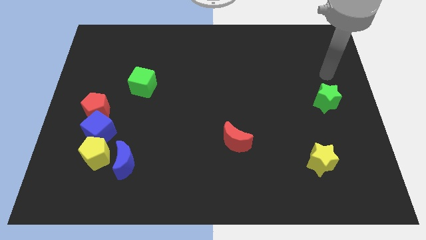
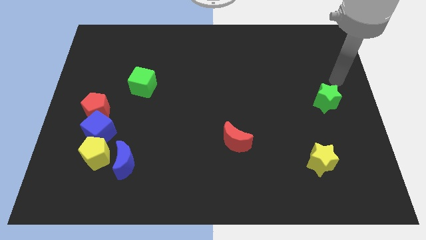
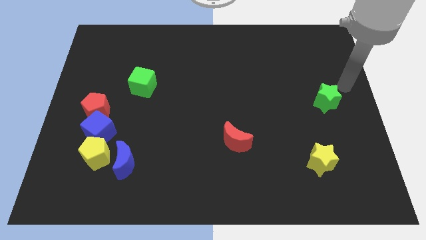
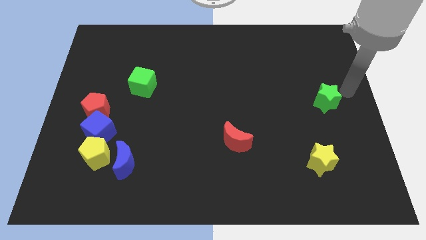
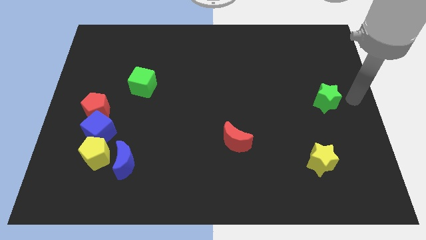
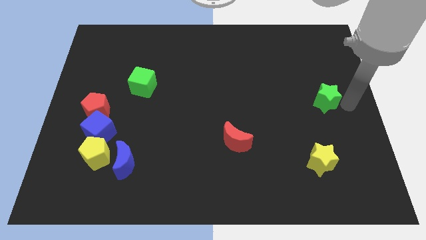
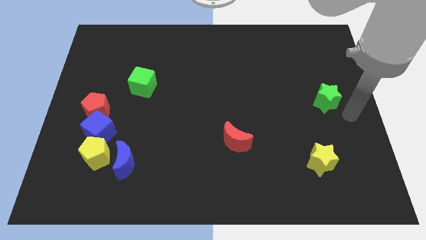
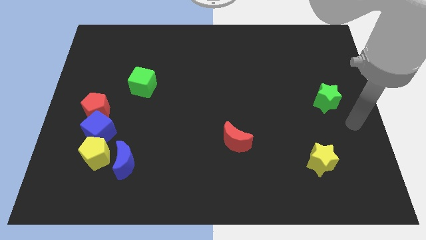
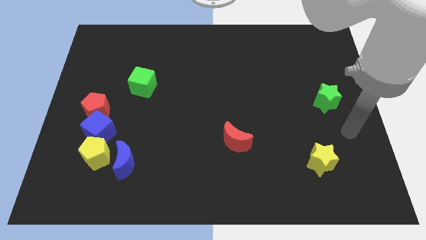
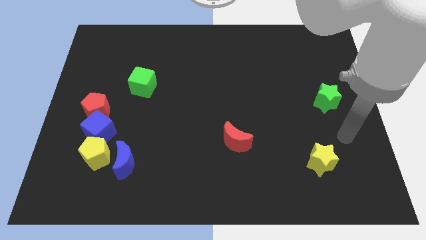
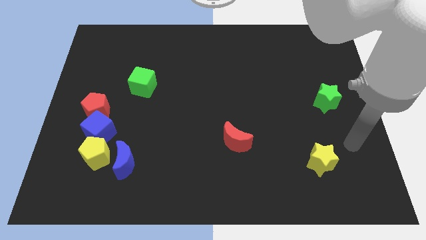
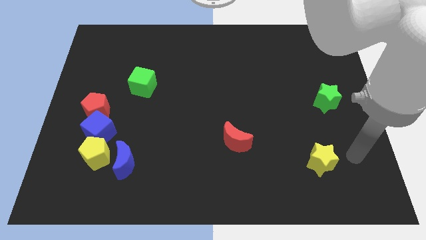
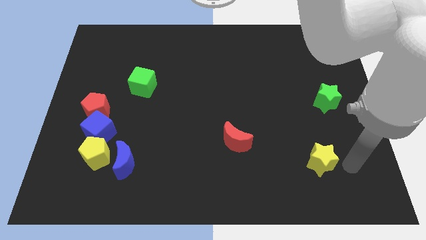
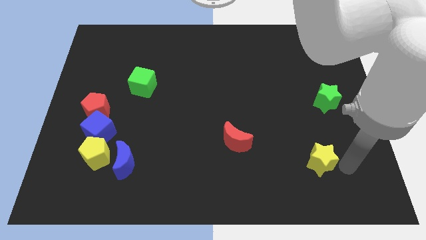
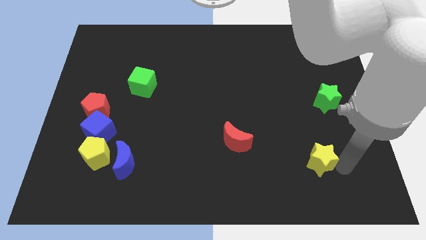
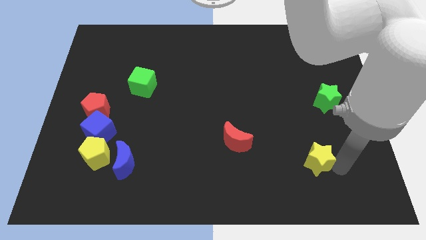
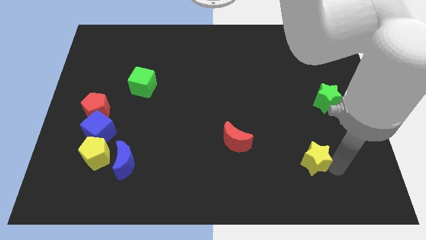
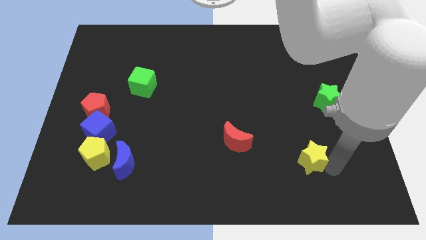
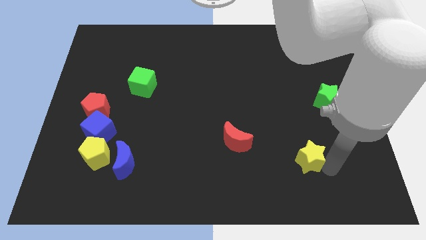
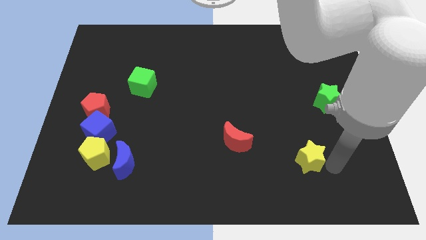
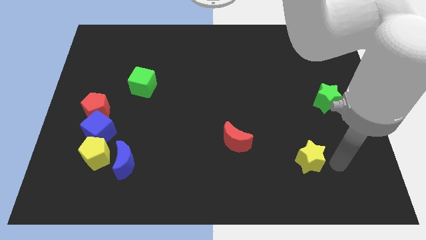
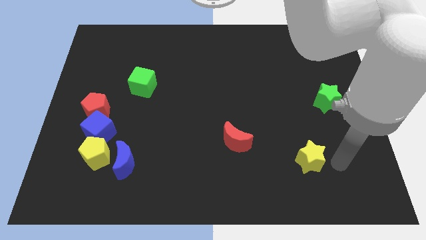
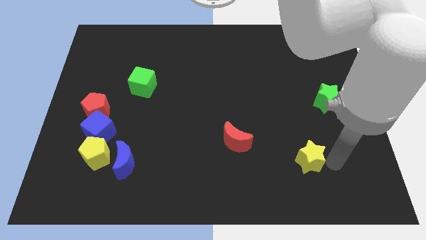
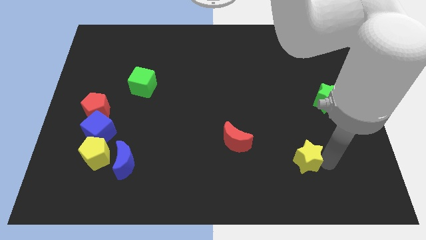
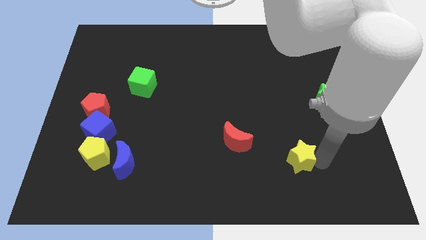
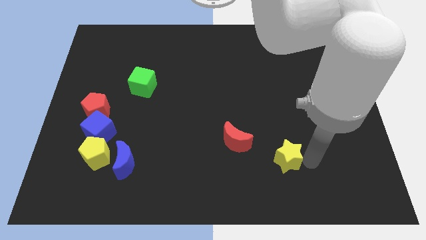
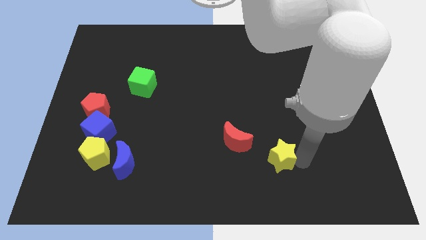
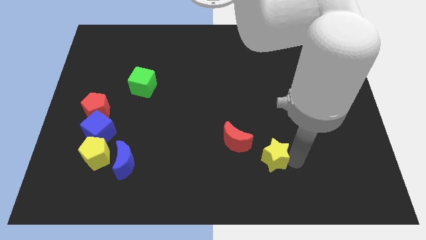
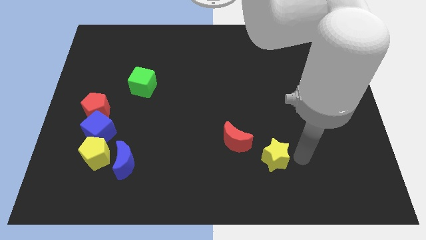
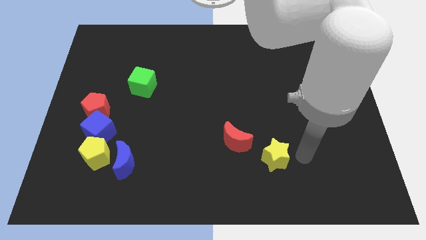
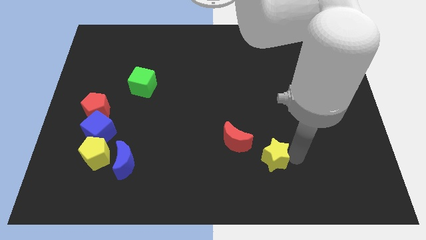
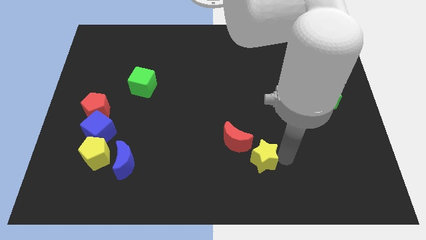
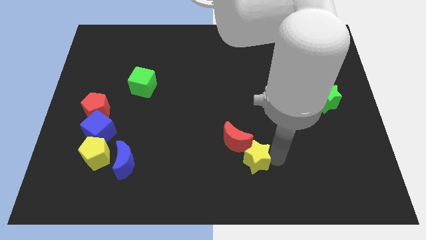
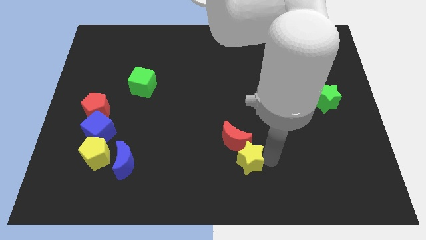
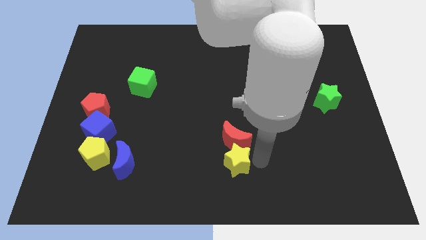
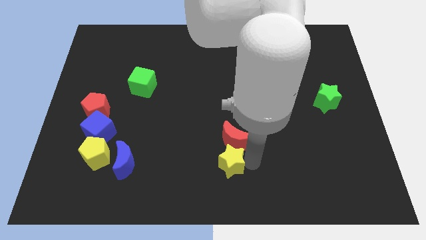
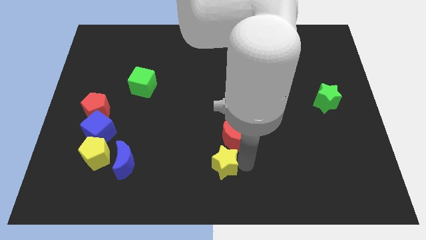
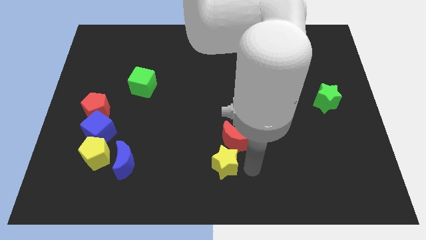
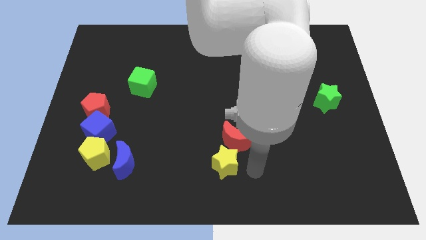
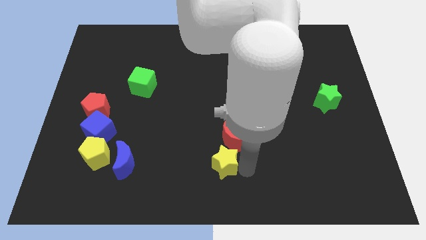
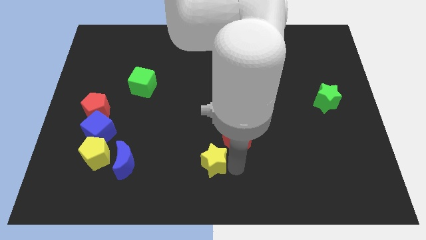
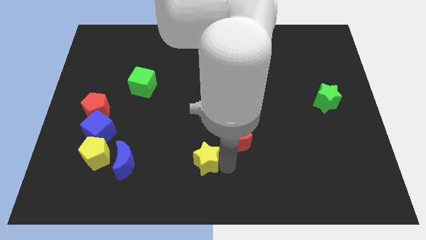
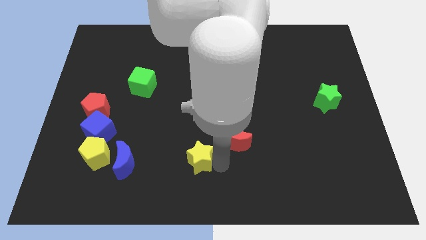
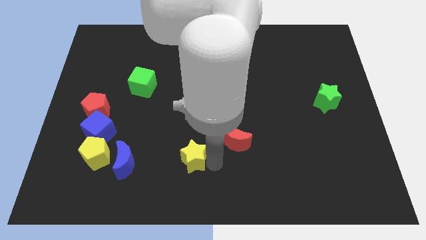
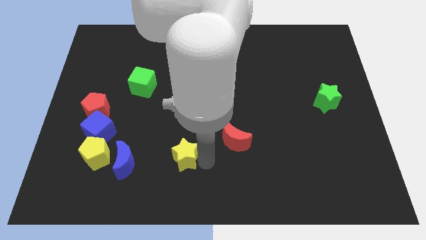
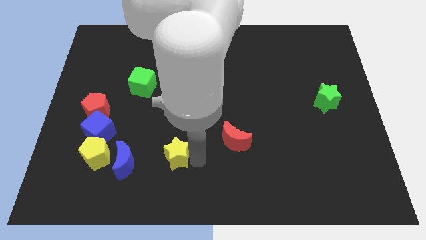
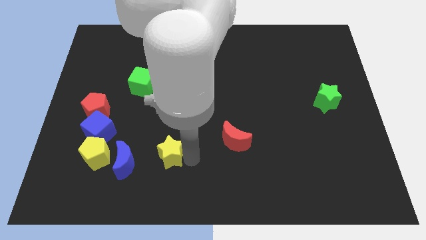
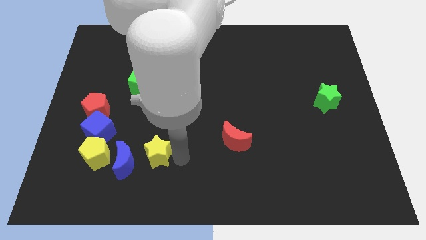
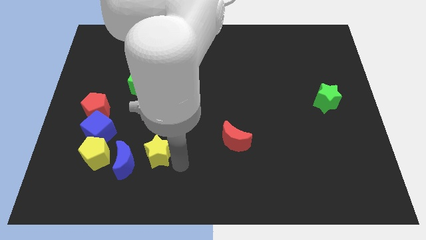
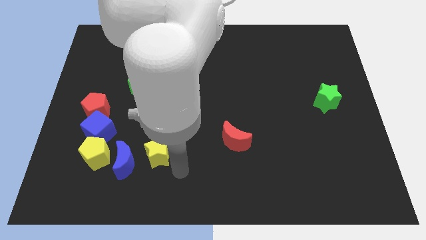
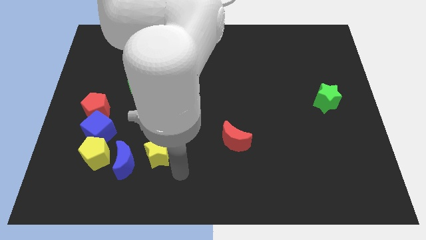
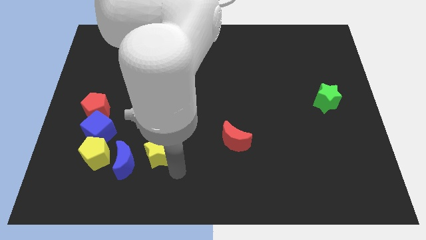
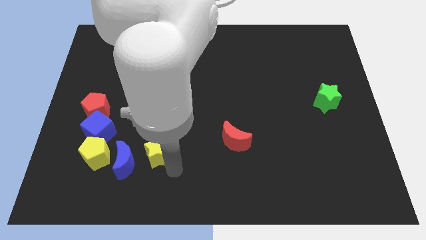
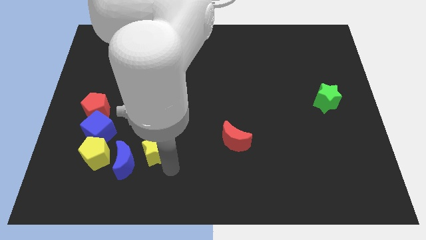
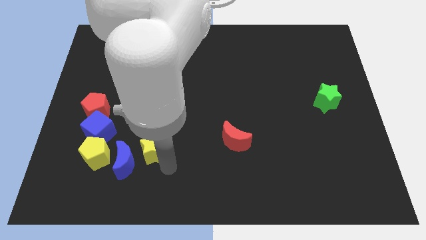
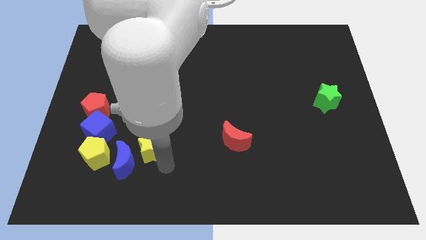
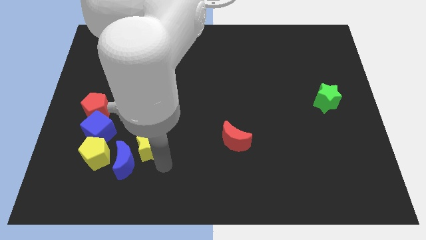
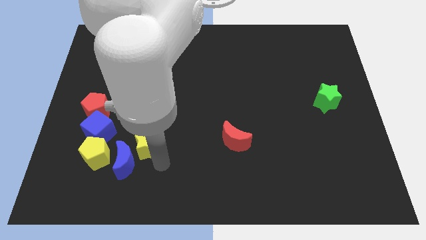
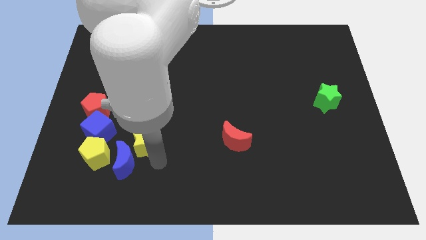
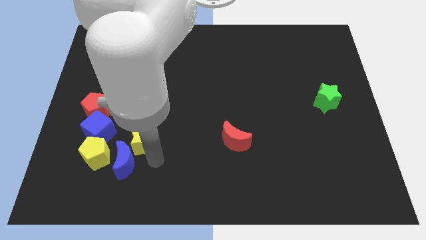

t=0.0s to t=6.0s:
move the yellow star to the top right of the yellow pentagon

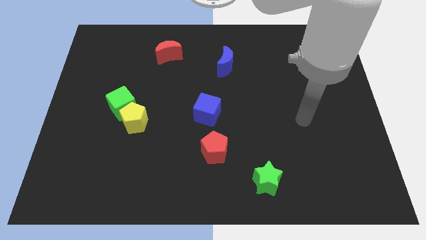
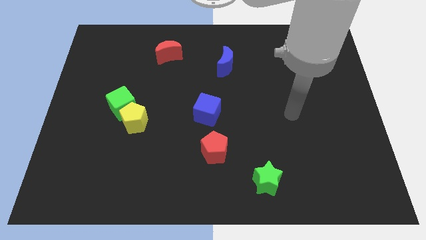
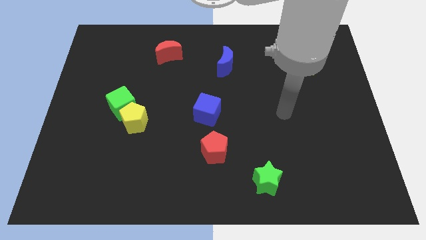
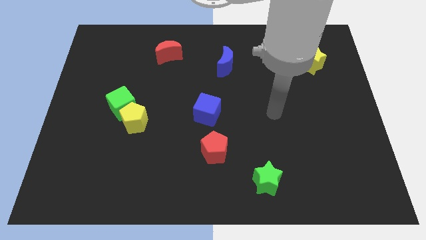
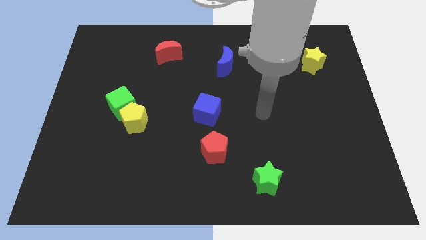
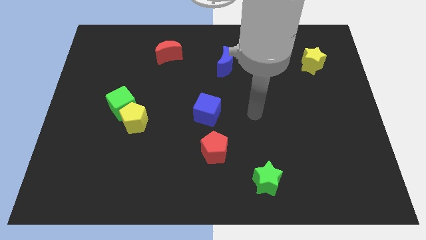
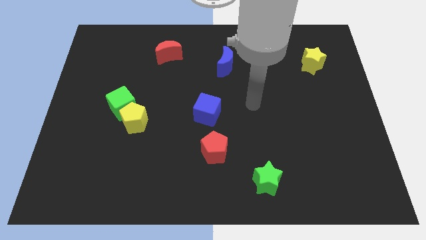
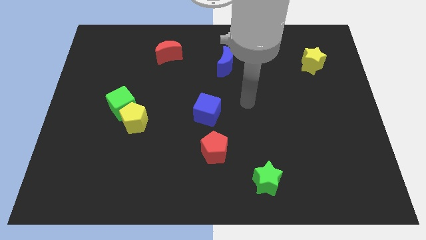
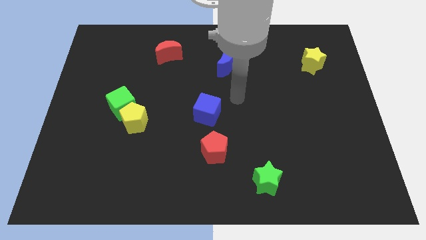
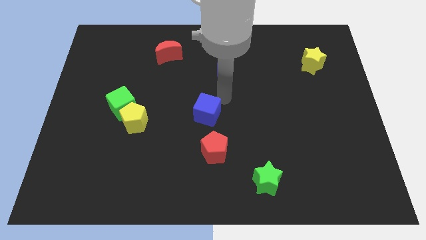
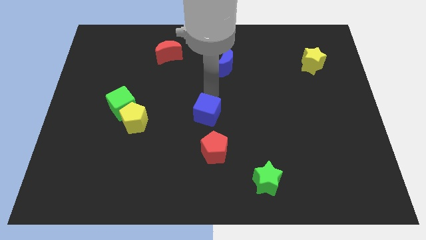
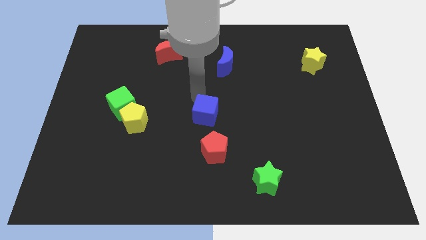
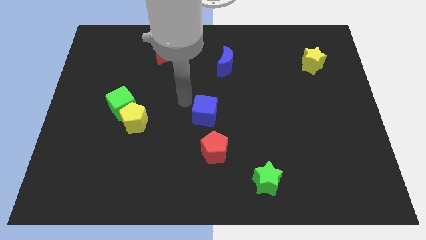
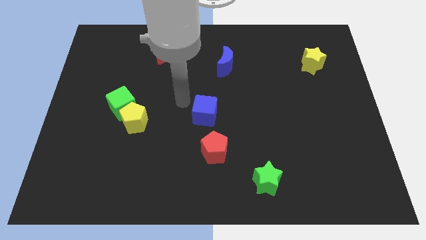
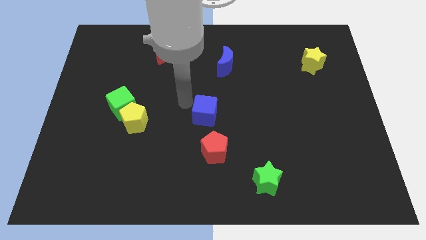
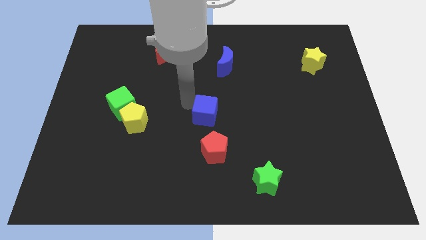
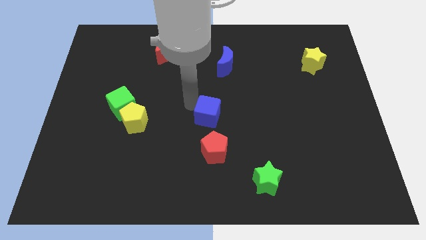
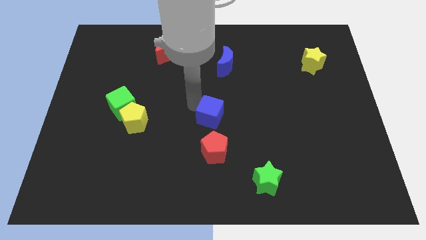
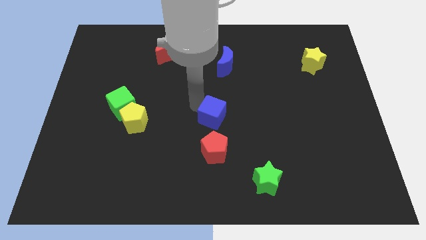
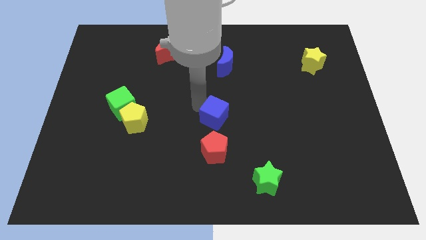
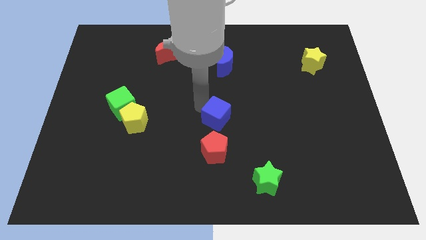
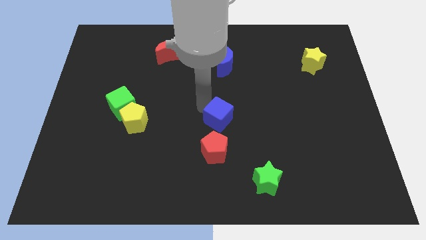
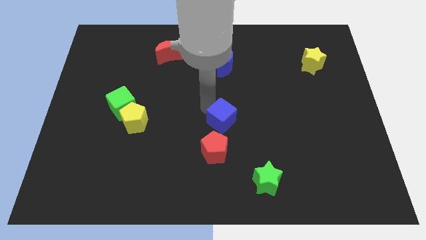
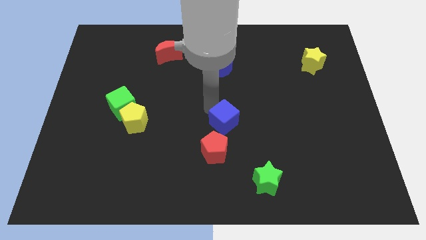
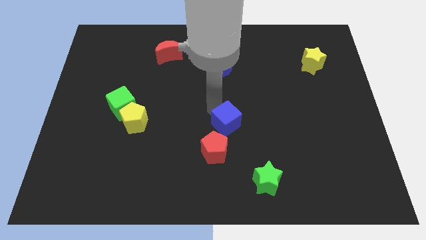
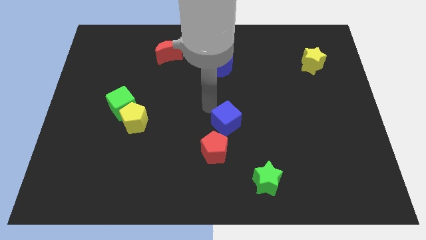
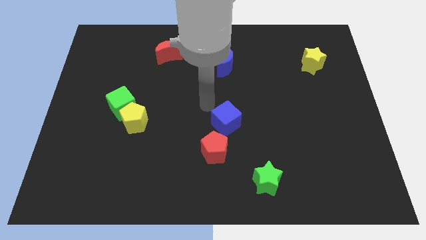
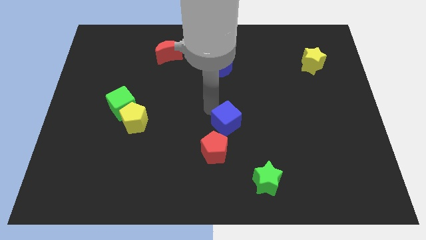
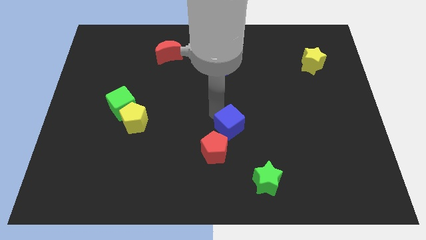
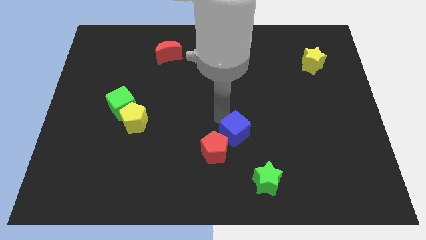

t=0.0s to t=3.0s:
put the blue cube right of the red pentagon
